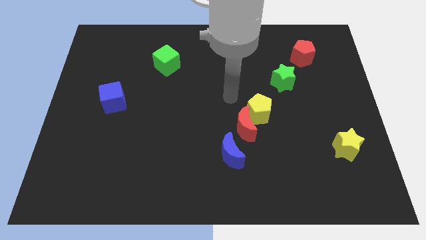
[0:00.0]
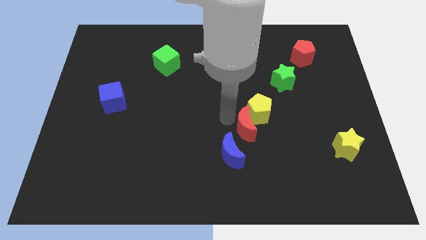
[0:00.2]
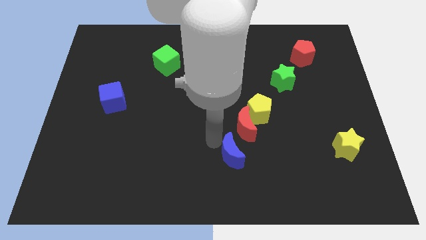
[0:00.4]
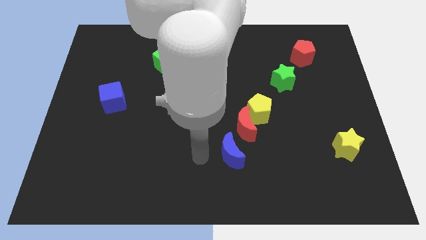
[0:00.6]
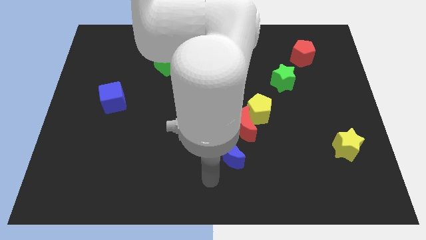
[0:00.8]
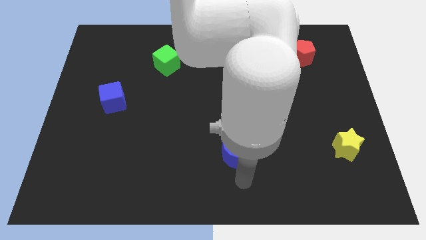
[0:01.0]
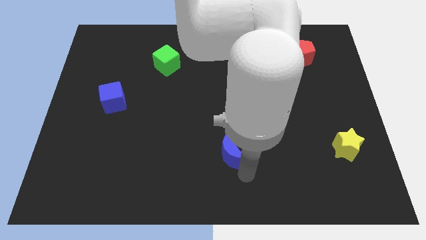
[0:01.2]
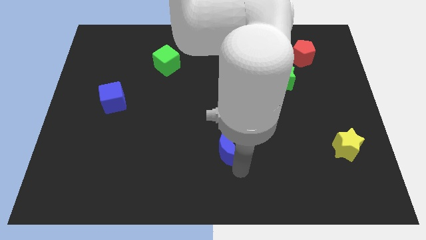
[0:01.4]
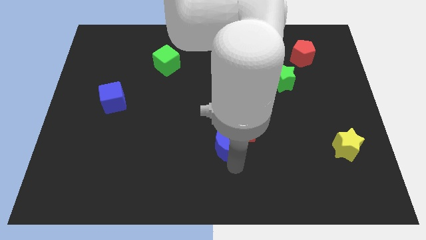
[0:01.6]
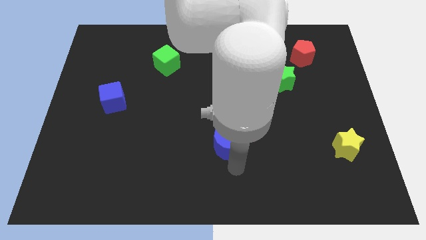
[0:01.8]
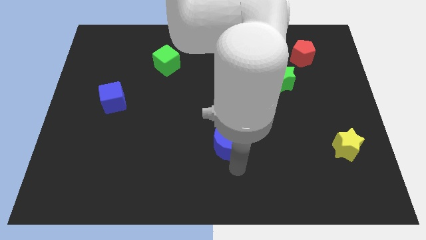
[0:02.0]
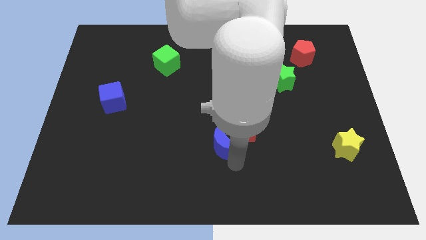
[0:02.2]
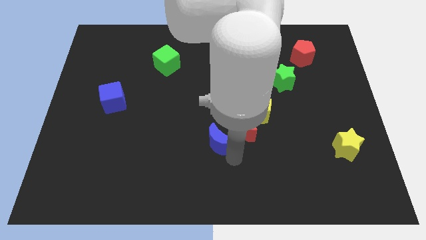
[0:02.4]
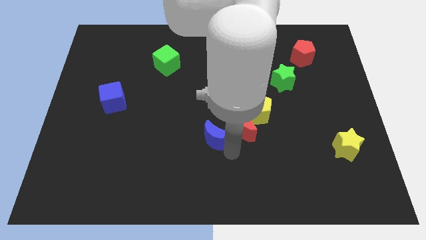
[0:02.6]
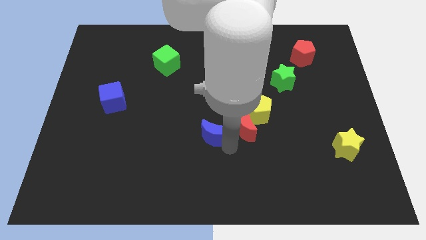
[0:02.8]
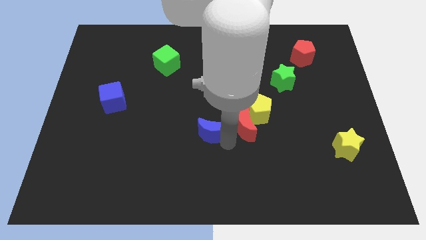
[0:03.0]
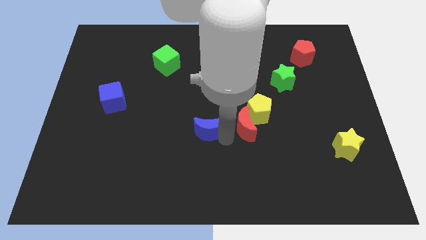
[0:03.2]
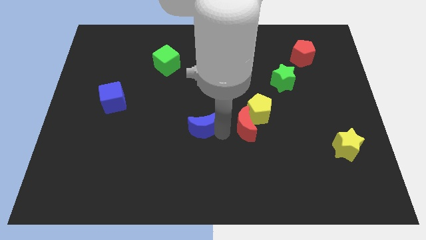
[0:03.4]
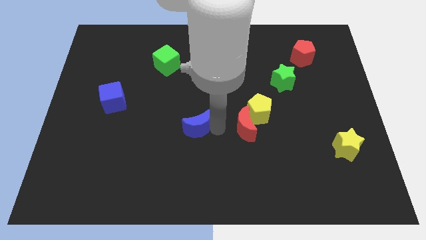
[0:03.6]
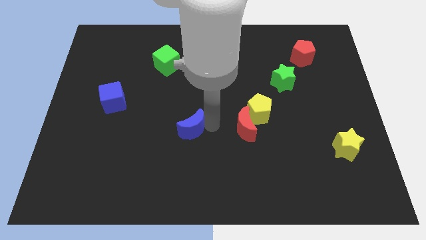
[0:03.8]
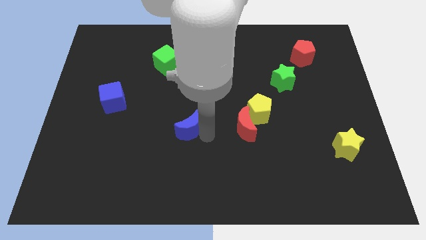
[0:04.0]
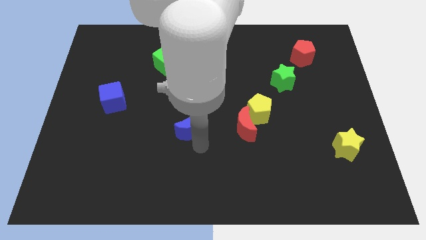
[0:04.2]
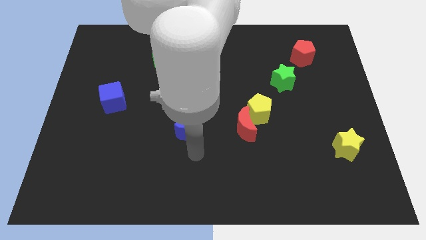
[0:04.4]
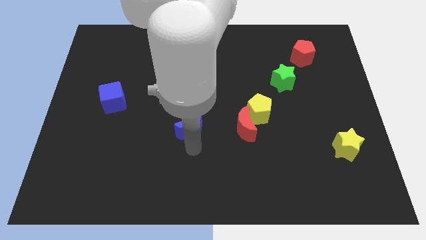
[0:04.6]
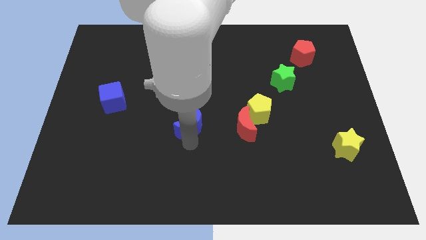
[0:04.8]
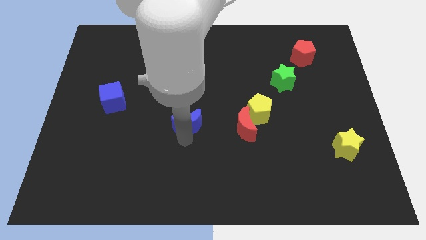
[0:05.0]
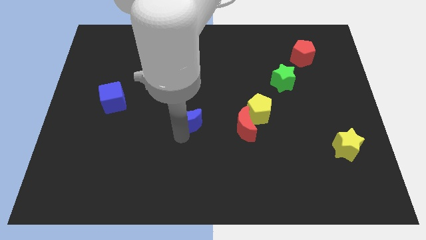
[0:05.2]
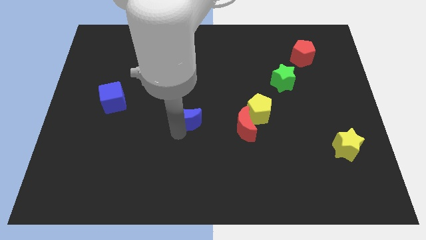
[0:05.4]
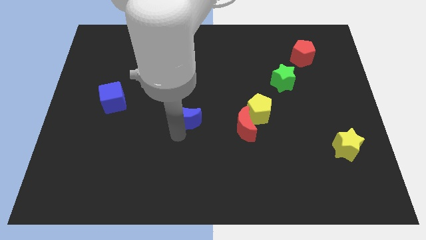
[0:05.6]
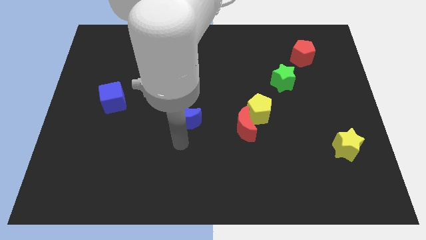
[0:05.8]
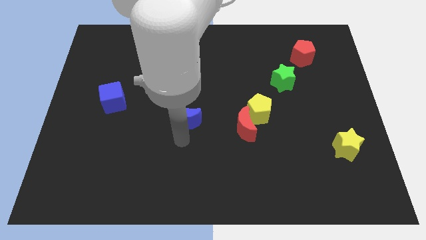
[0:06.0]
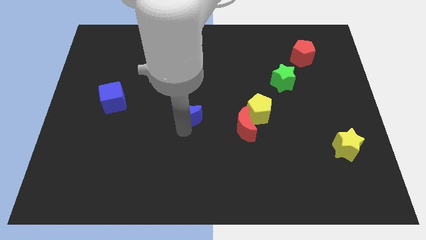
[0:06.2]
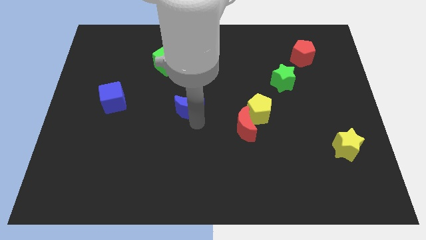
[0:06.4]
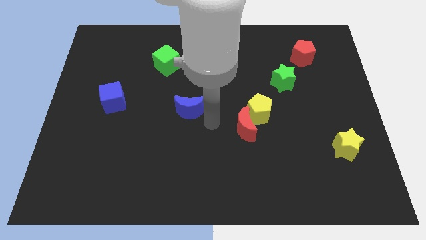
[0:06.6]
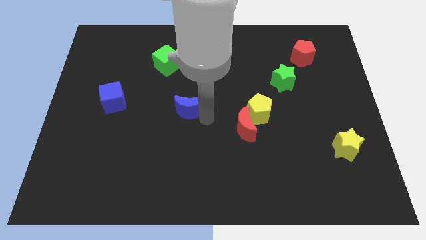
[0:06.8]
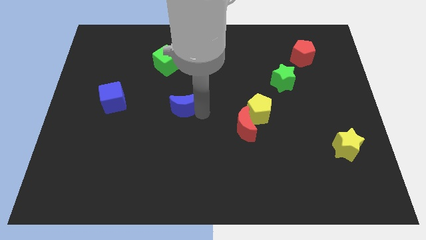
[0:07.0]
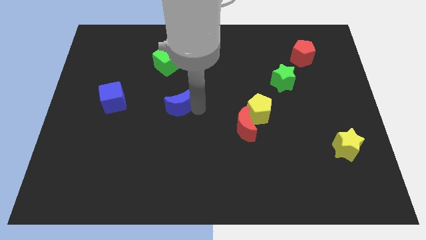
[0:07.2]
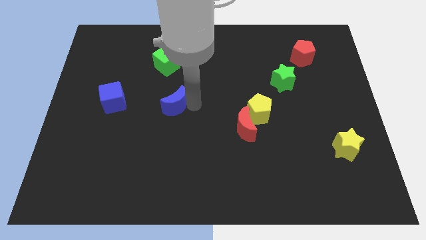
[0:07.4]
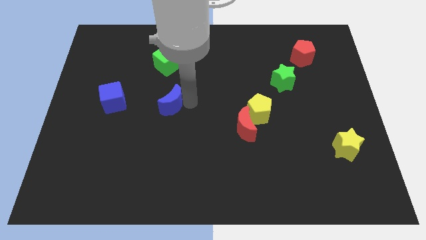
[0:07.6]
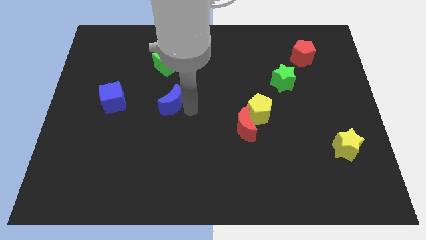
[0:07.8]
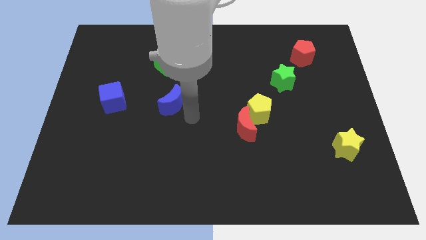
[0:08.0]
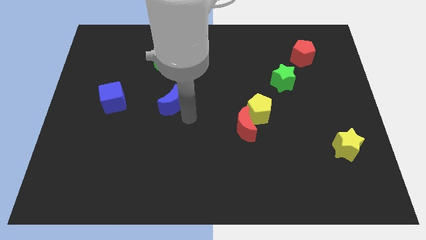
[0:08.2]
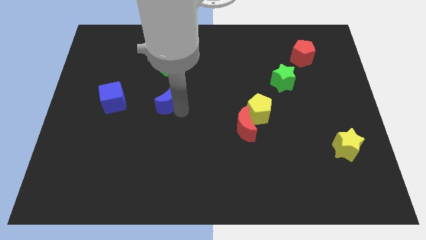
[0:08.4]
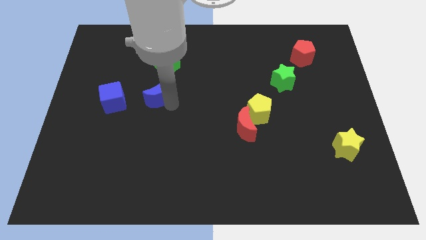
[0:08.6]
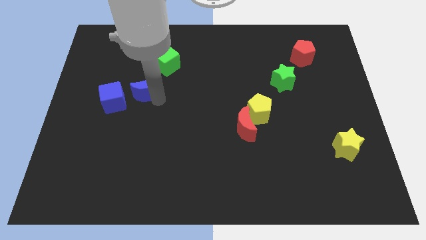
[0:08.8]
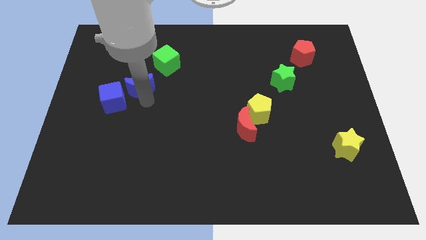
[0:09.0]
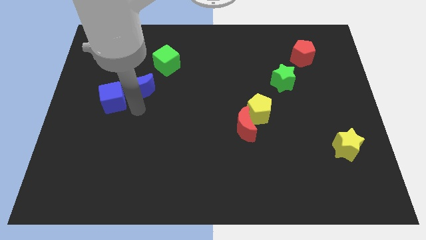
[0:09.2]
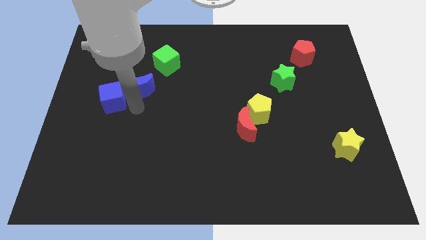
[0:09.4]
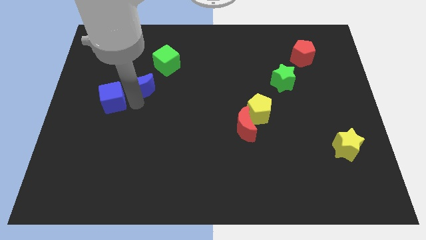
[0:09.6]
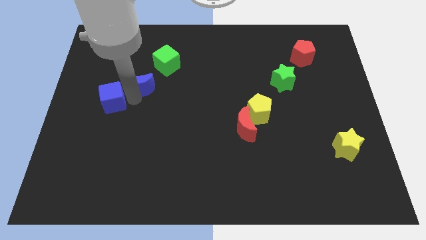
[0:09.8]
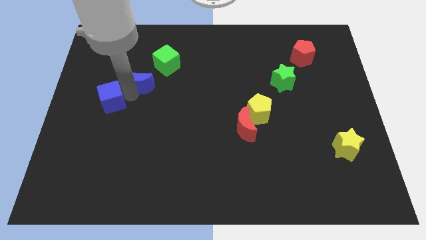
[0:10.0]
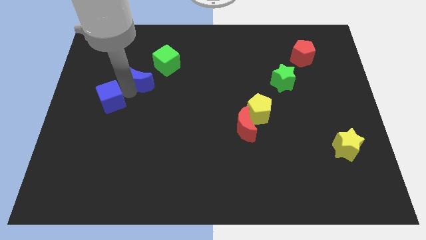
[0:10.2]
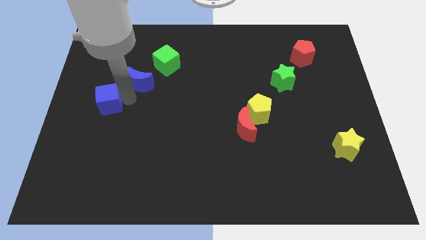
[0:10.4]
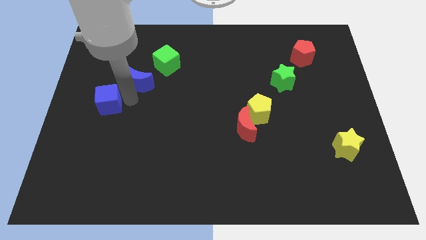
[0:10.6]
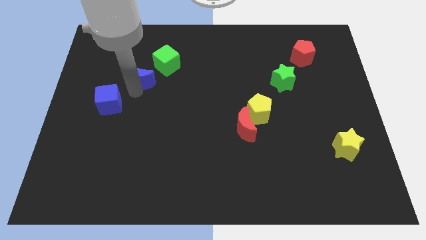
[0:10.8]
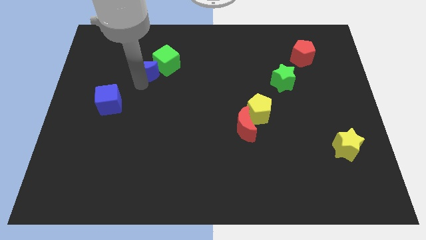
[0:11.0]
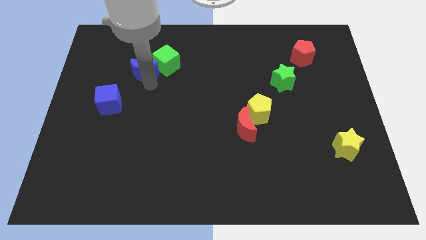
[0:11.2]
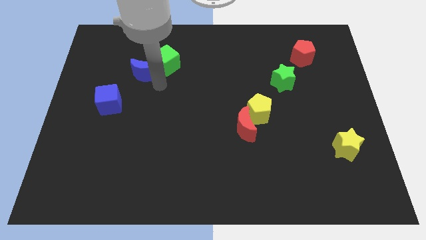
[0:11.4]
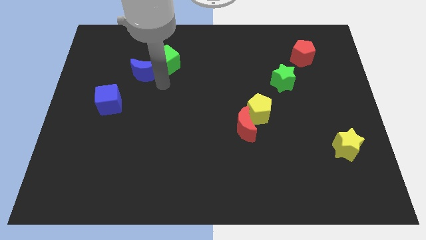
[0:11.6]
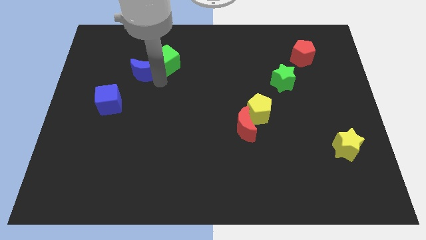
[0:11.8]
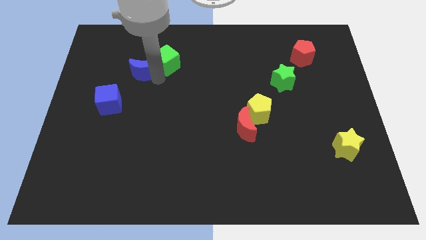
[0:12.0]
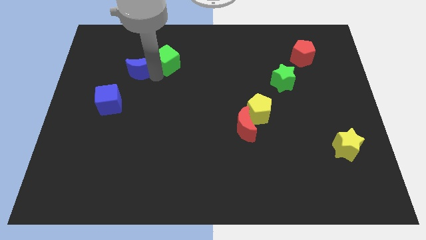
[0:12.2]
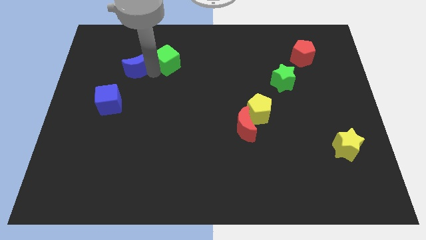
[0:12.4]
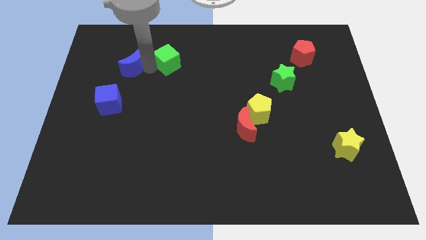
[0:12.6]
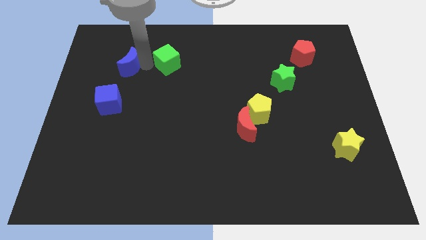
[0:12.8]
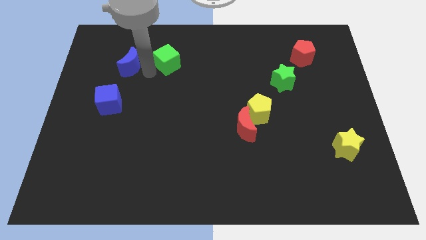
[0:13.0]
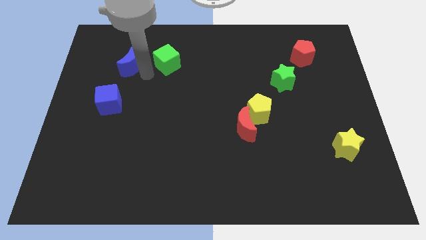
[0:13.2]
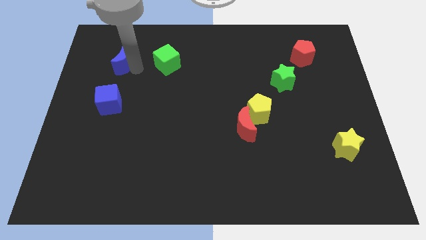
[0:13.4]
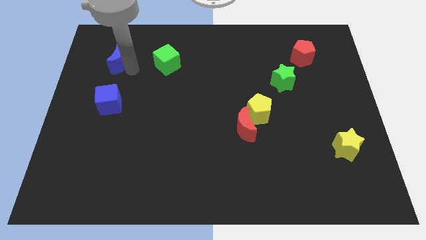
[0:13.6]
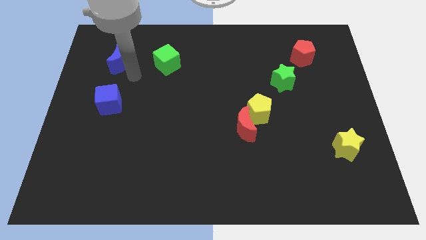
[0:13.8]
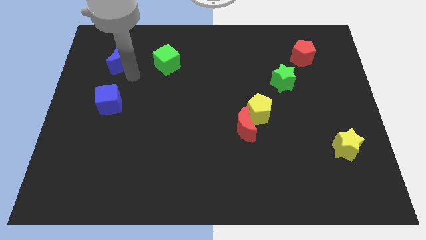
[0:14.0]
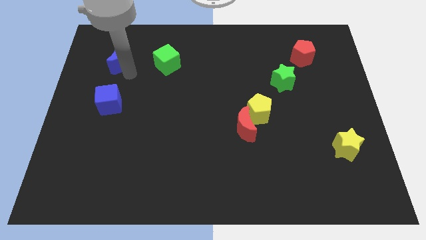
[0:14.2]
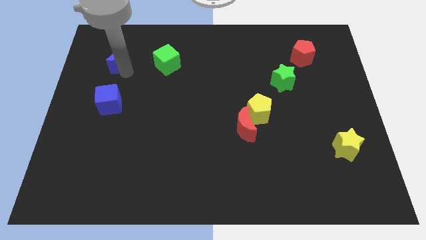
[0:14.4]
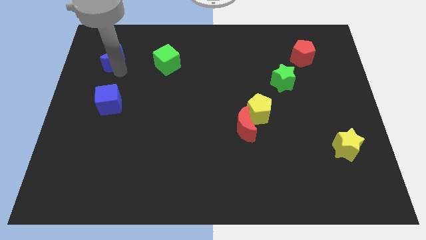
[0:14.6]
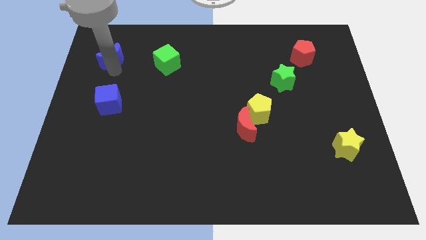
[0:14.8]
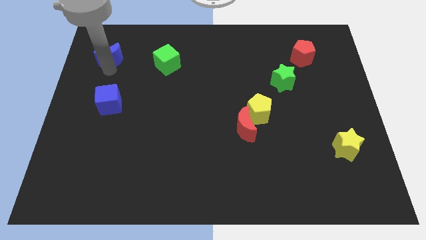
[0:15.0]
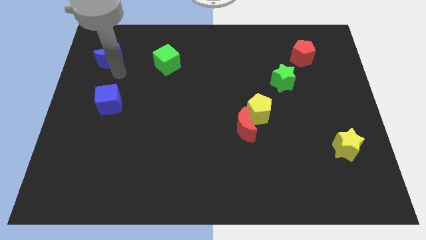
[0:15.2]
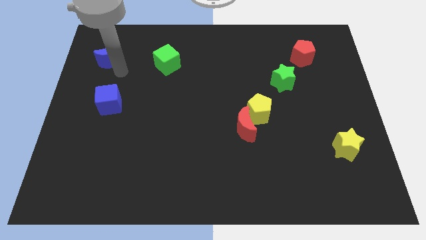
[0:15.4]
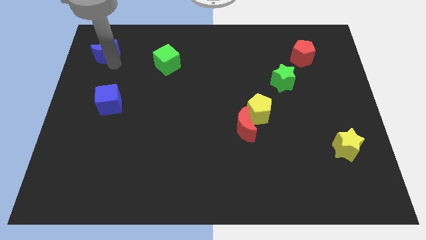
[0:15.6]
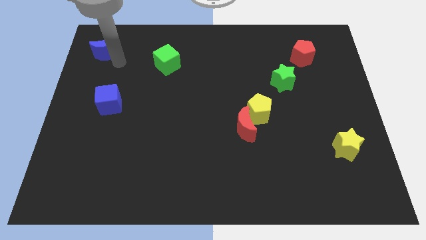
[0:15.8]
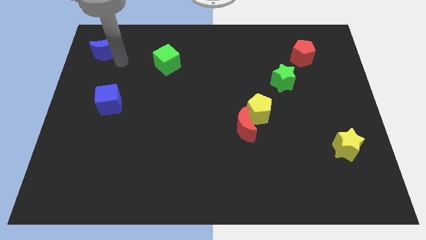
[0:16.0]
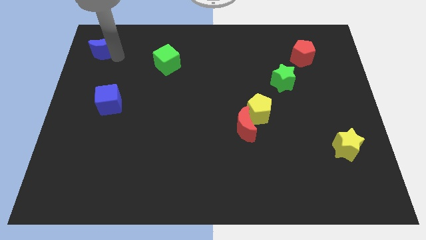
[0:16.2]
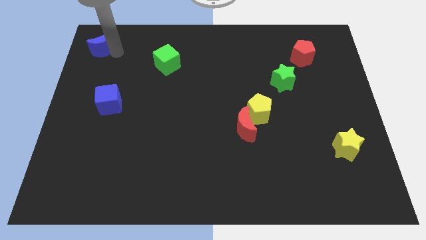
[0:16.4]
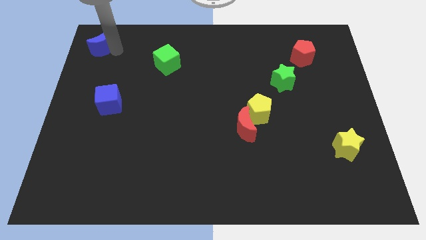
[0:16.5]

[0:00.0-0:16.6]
put the blue moon to the top left of the board
